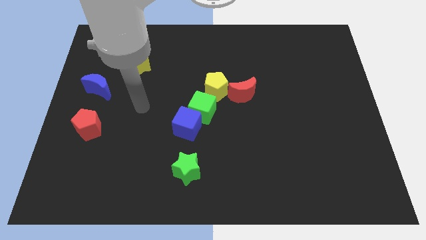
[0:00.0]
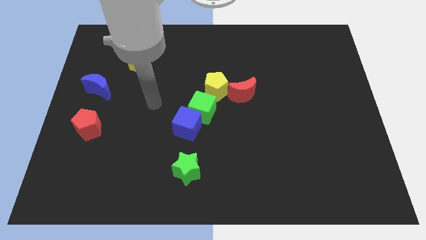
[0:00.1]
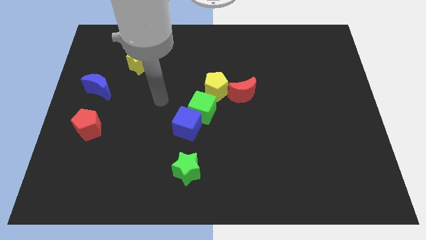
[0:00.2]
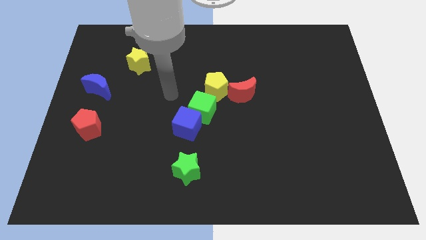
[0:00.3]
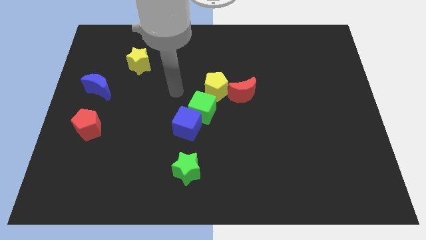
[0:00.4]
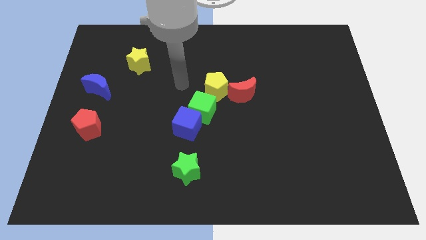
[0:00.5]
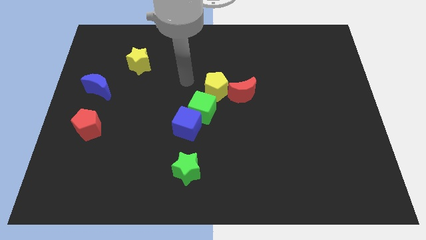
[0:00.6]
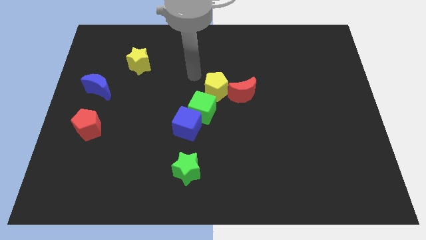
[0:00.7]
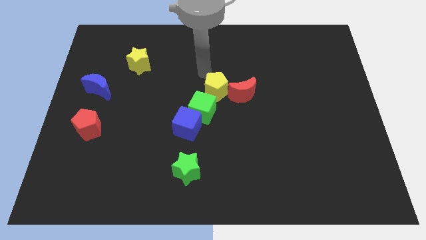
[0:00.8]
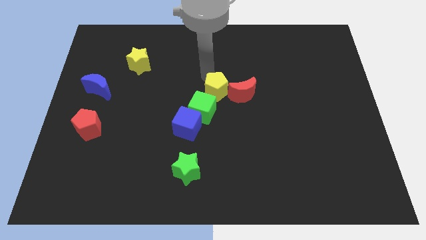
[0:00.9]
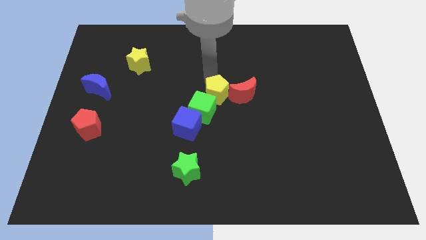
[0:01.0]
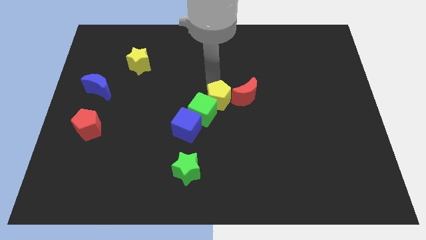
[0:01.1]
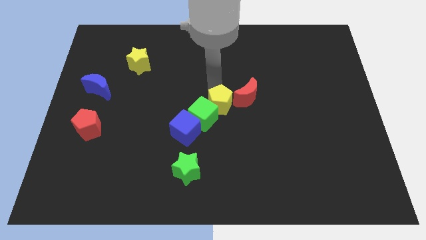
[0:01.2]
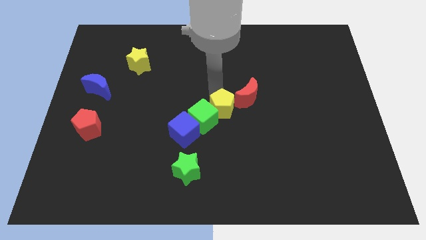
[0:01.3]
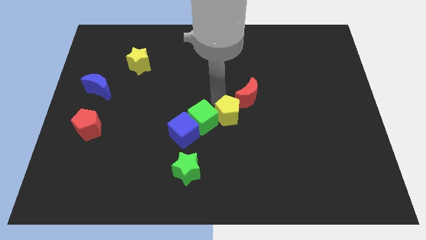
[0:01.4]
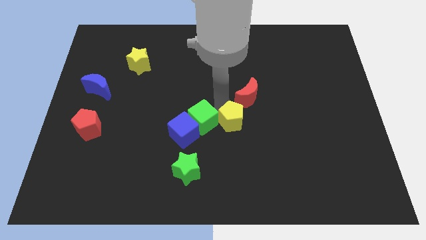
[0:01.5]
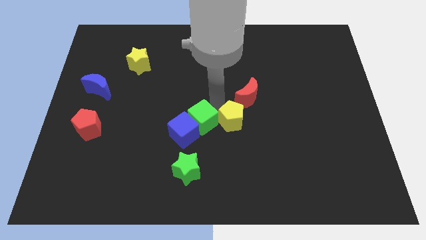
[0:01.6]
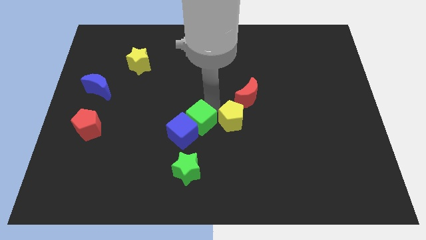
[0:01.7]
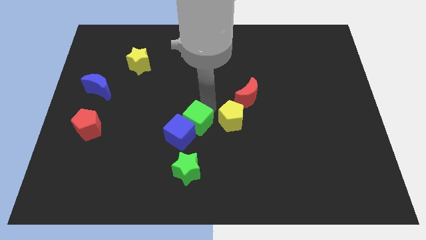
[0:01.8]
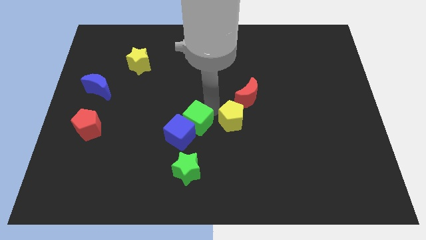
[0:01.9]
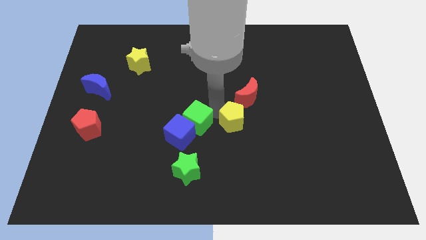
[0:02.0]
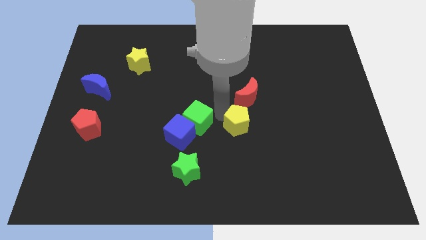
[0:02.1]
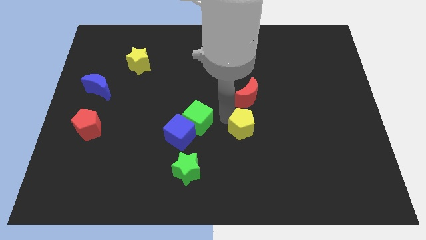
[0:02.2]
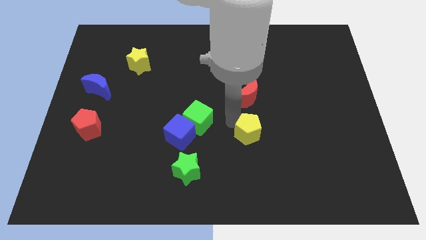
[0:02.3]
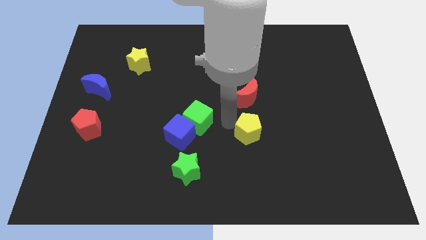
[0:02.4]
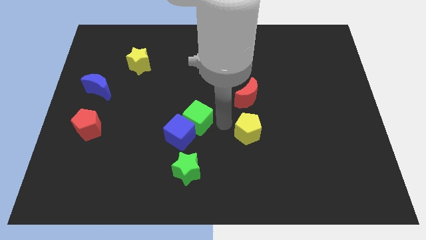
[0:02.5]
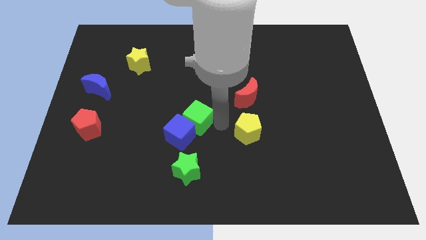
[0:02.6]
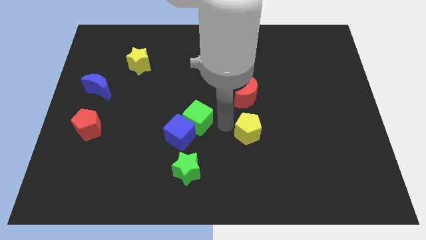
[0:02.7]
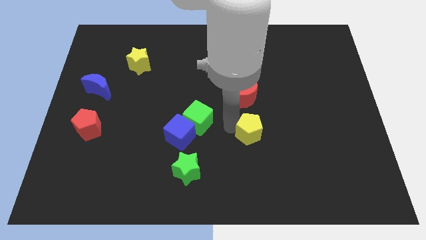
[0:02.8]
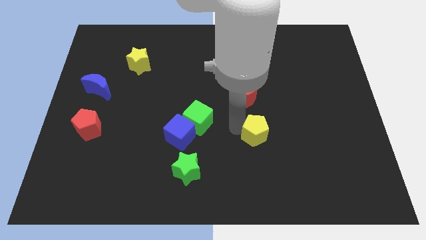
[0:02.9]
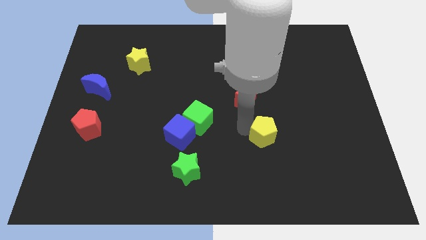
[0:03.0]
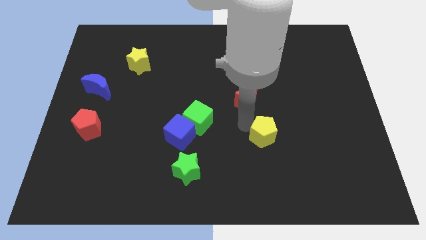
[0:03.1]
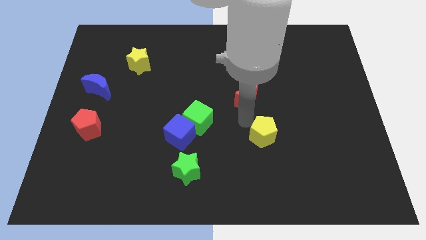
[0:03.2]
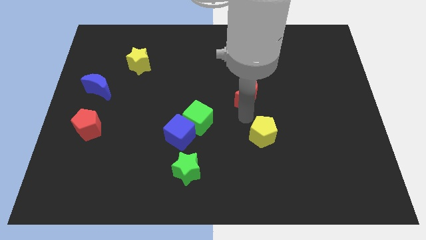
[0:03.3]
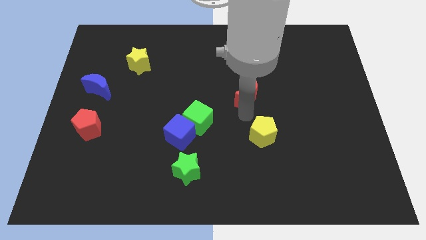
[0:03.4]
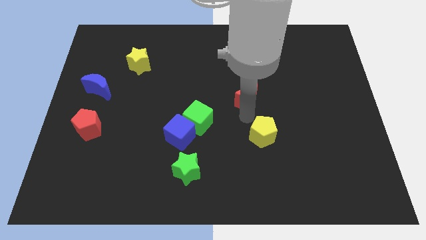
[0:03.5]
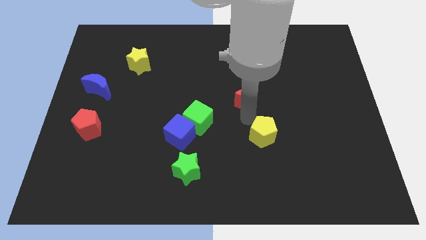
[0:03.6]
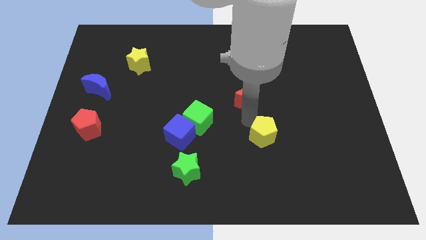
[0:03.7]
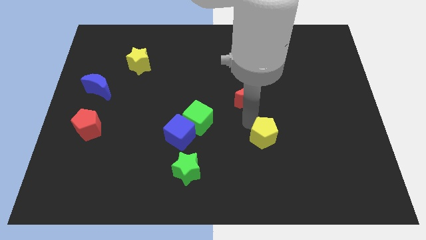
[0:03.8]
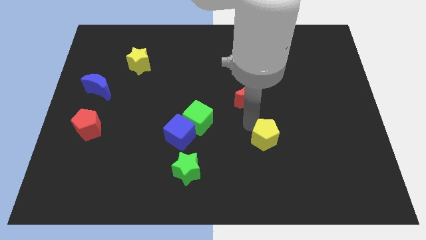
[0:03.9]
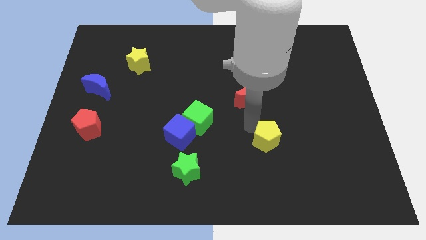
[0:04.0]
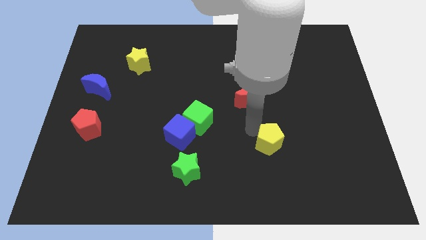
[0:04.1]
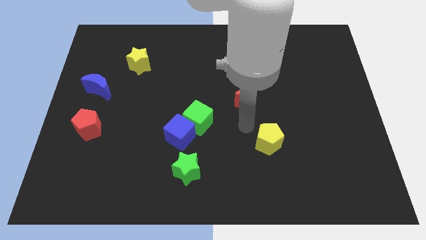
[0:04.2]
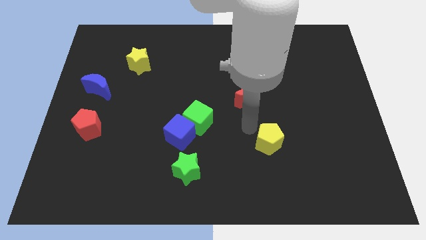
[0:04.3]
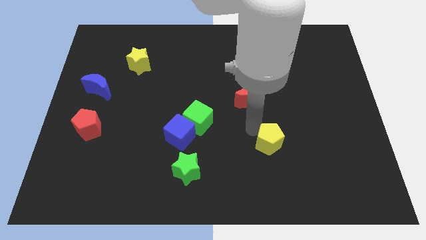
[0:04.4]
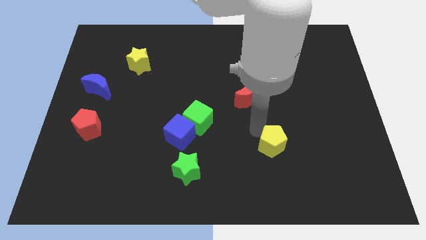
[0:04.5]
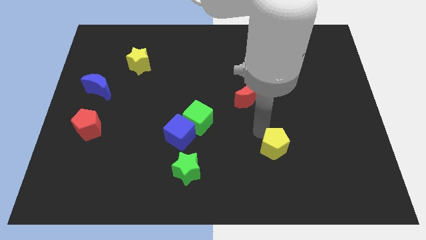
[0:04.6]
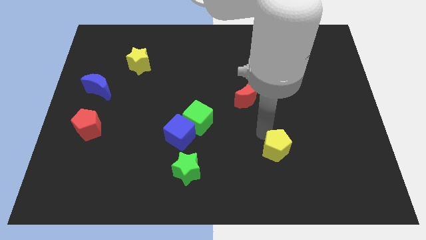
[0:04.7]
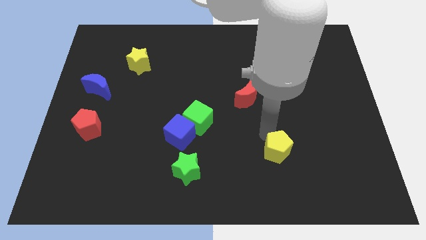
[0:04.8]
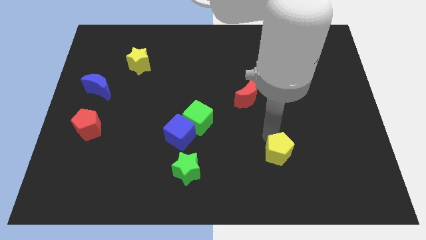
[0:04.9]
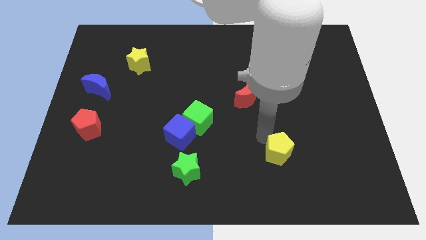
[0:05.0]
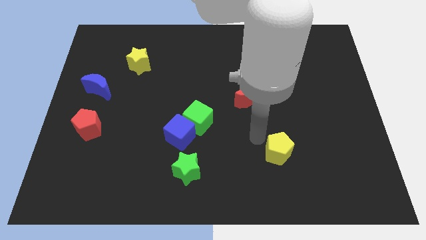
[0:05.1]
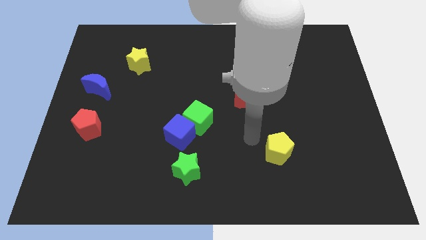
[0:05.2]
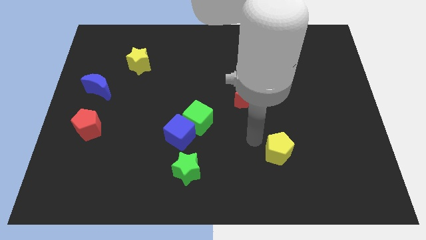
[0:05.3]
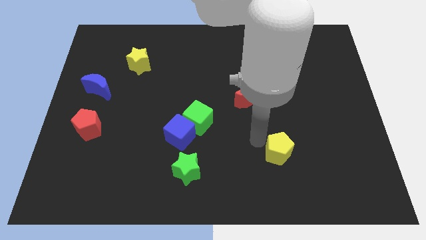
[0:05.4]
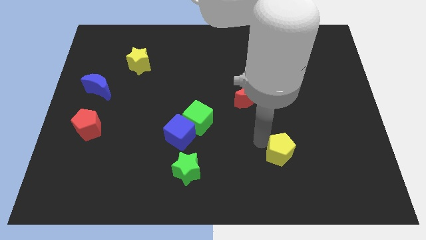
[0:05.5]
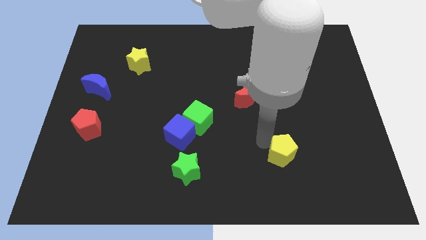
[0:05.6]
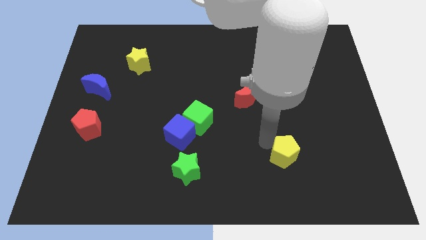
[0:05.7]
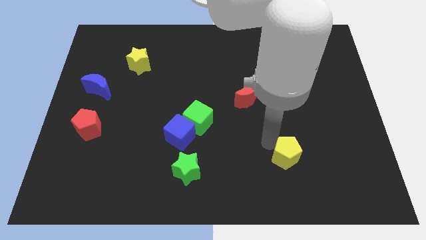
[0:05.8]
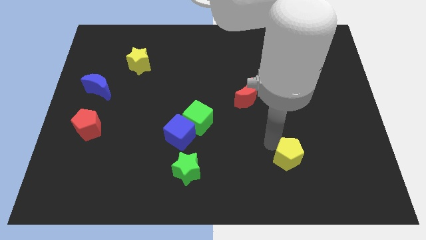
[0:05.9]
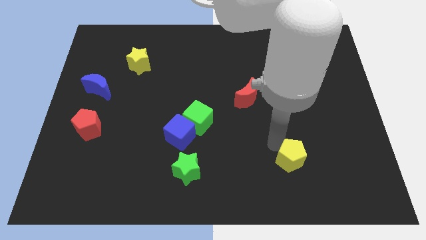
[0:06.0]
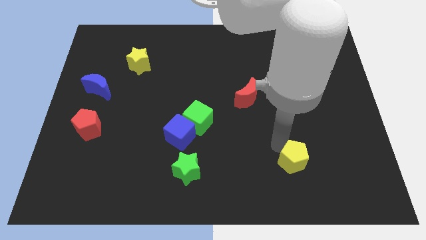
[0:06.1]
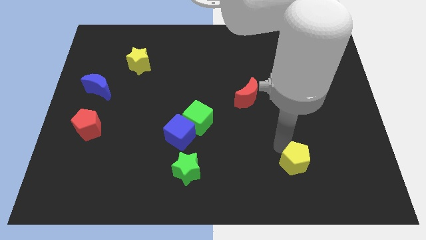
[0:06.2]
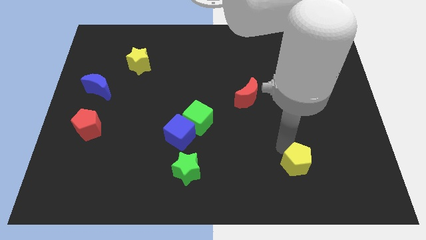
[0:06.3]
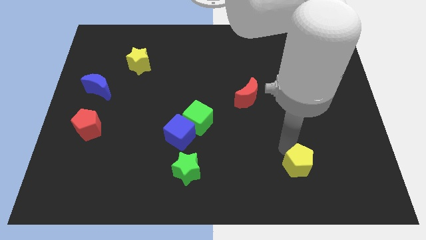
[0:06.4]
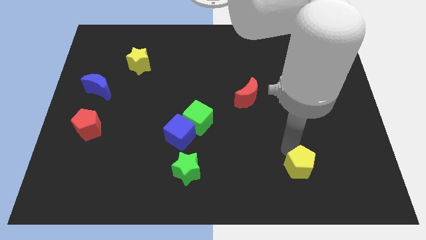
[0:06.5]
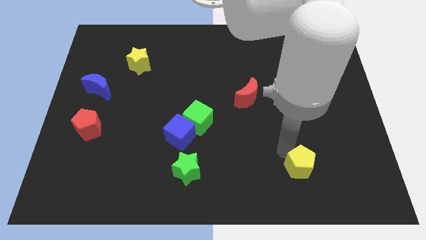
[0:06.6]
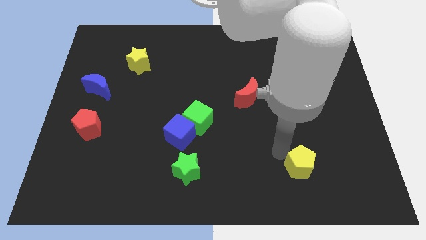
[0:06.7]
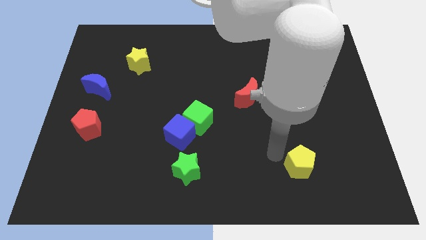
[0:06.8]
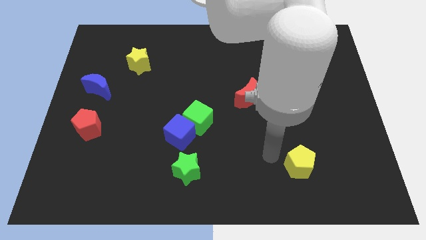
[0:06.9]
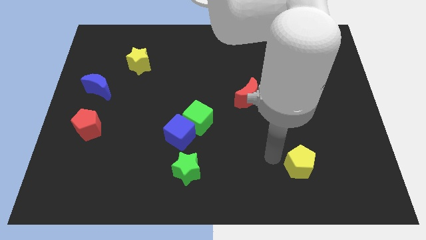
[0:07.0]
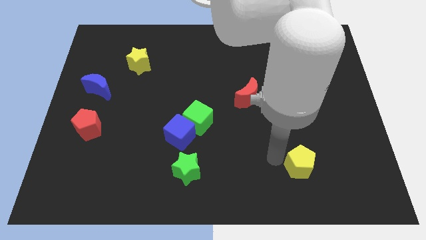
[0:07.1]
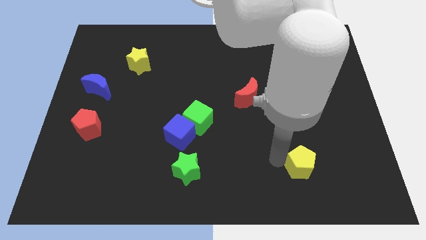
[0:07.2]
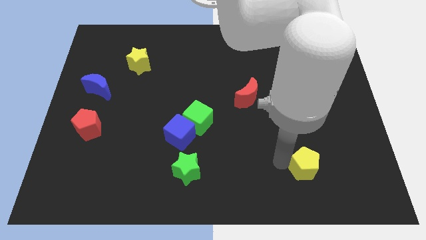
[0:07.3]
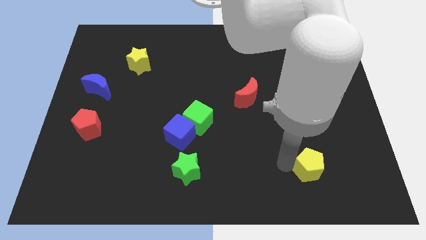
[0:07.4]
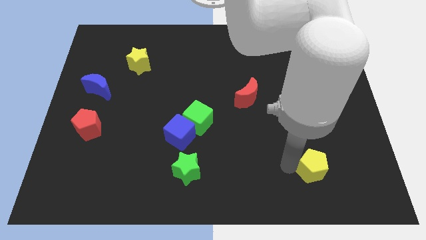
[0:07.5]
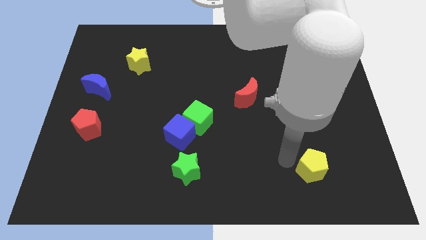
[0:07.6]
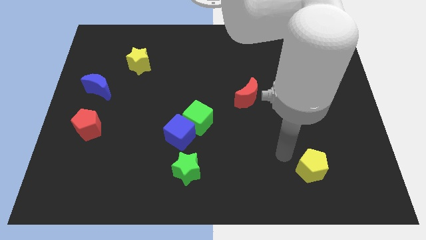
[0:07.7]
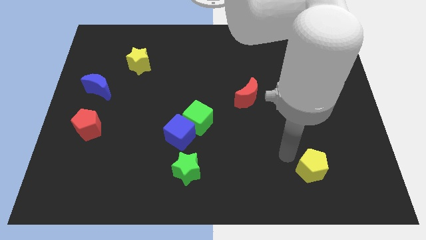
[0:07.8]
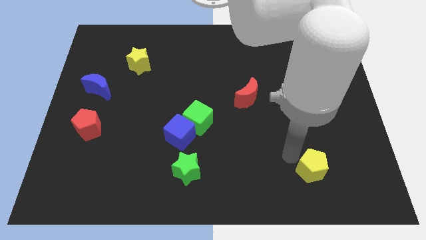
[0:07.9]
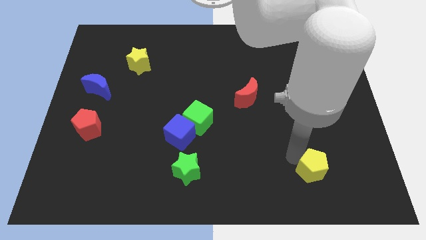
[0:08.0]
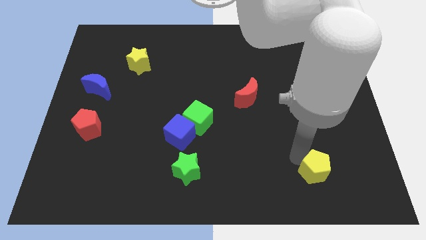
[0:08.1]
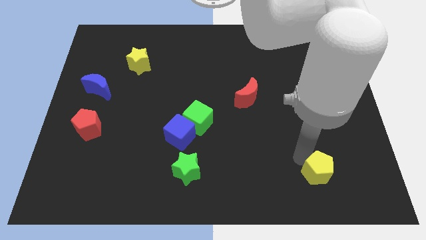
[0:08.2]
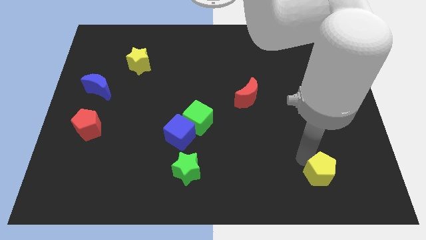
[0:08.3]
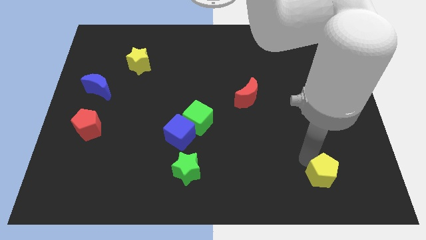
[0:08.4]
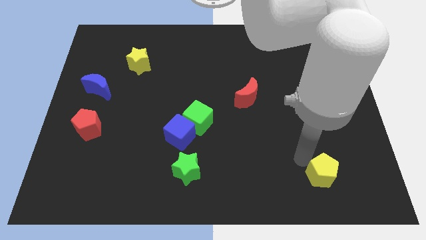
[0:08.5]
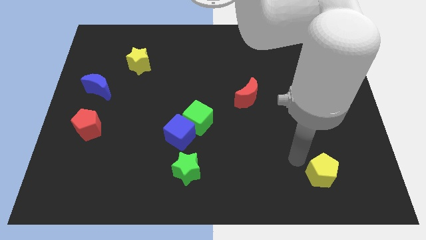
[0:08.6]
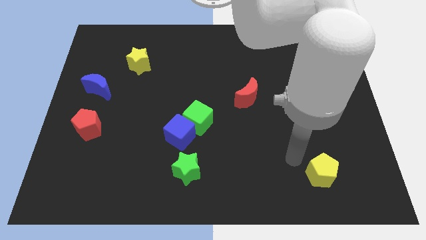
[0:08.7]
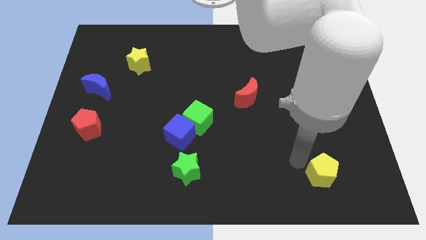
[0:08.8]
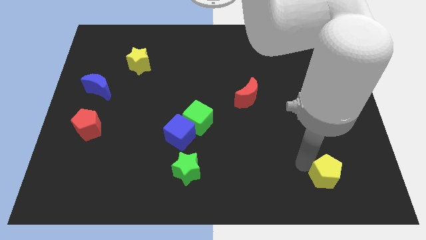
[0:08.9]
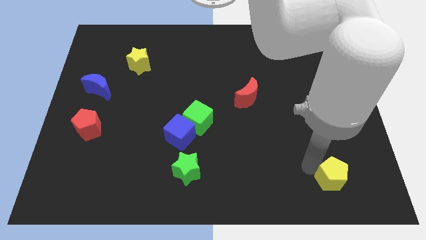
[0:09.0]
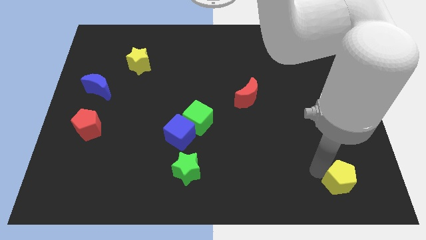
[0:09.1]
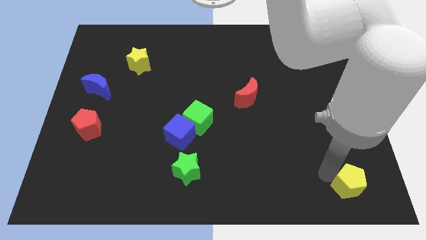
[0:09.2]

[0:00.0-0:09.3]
slide the yellow pentagon to the lower right corner
